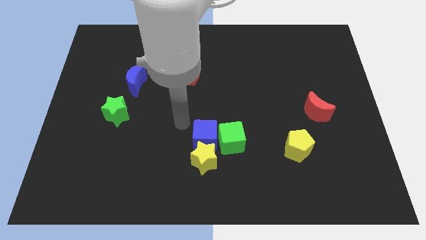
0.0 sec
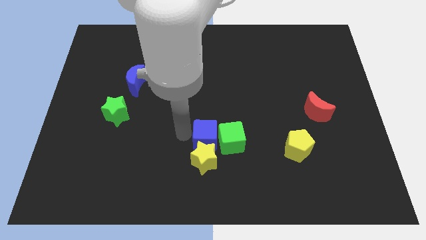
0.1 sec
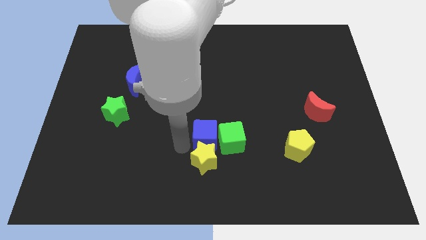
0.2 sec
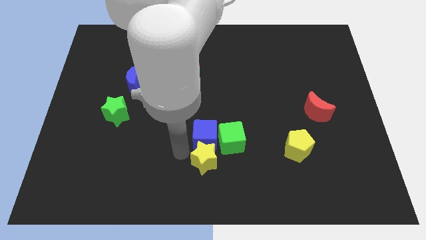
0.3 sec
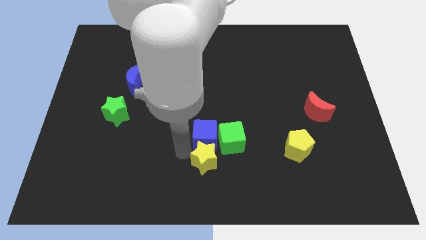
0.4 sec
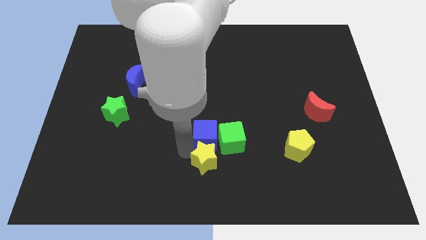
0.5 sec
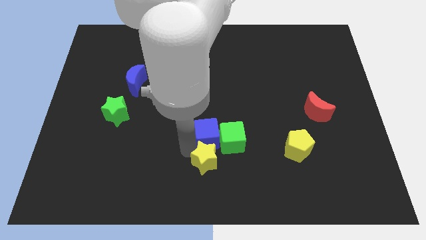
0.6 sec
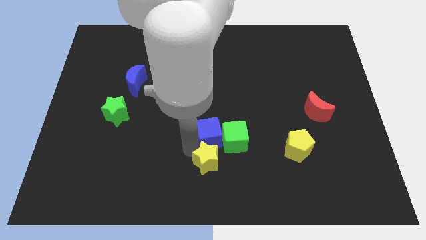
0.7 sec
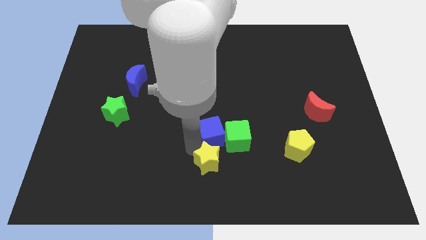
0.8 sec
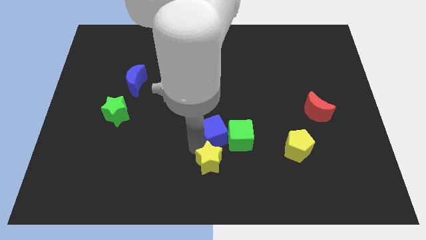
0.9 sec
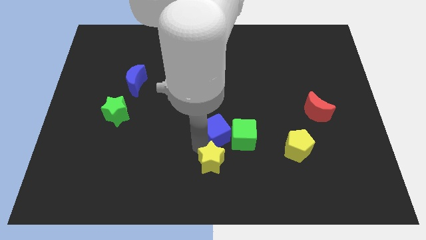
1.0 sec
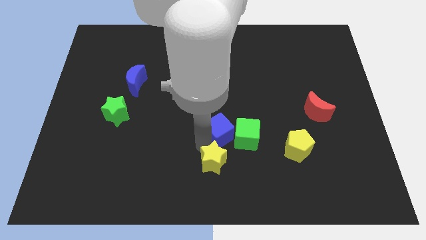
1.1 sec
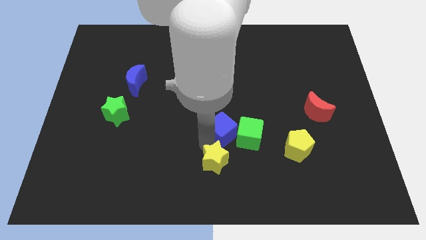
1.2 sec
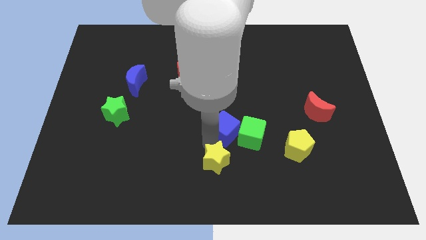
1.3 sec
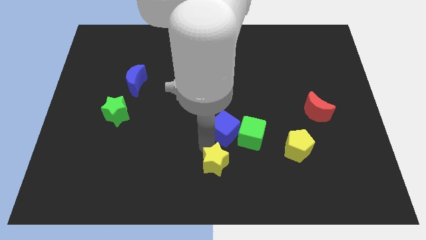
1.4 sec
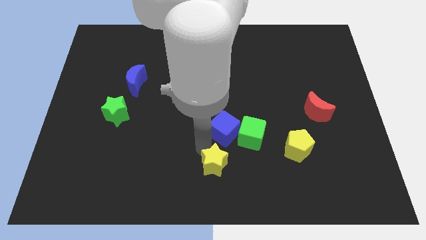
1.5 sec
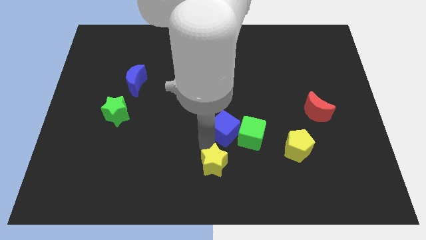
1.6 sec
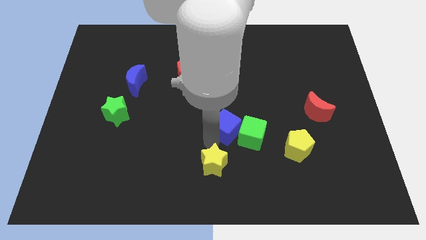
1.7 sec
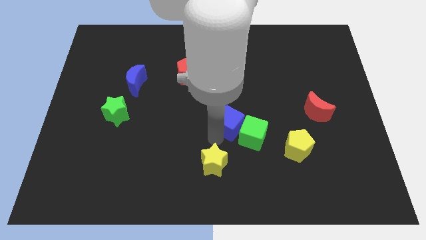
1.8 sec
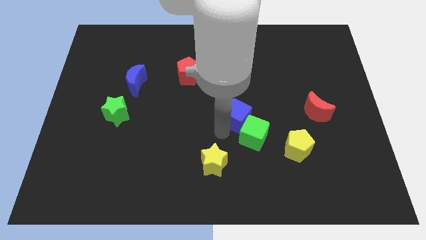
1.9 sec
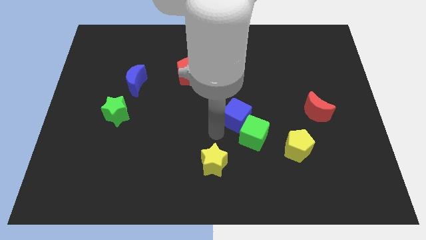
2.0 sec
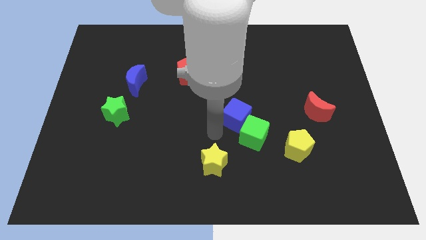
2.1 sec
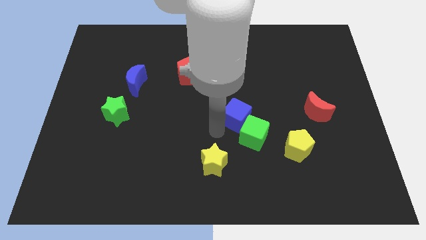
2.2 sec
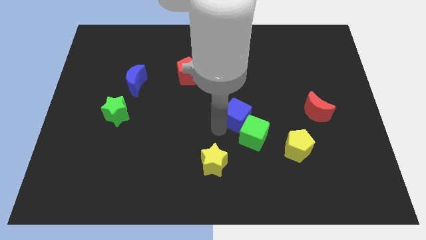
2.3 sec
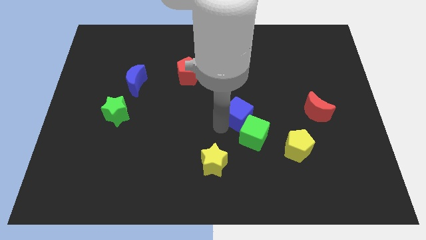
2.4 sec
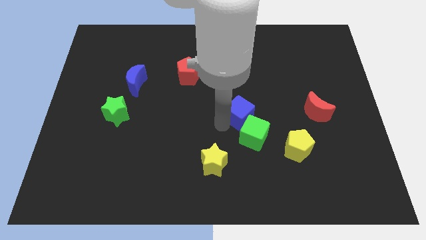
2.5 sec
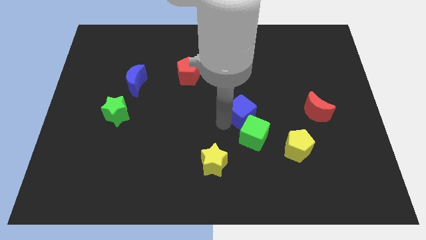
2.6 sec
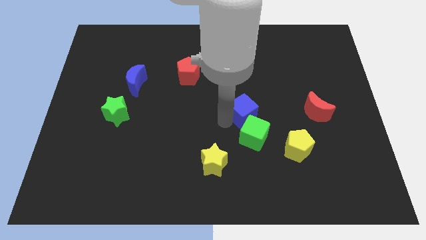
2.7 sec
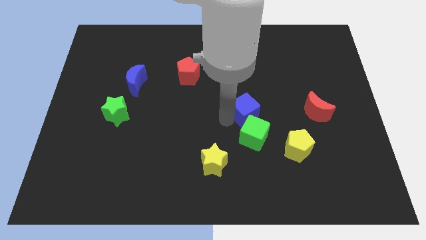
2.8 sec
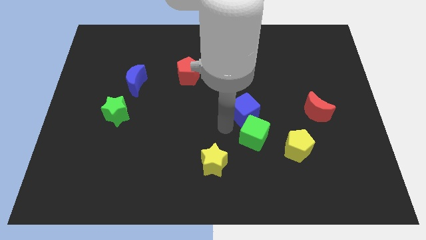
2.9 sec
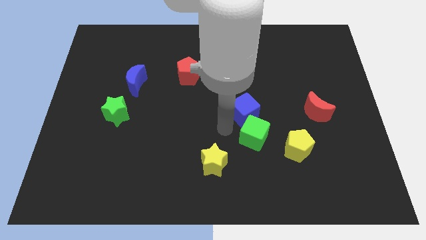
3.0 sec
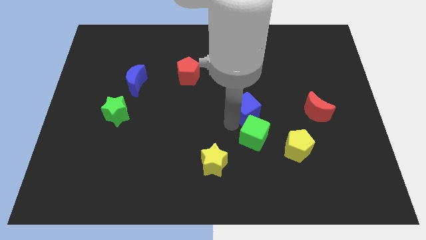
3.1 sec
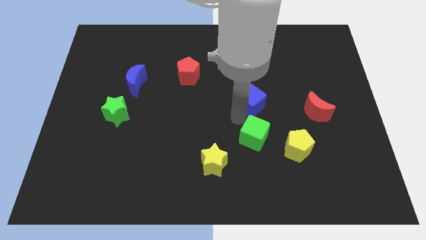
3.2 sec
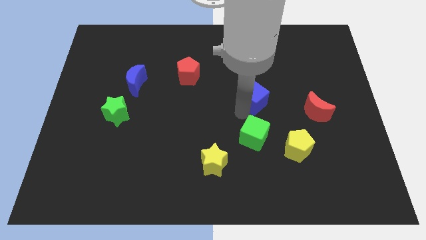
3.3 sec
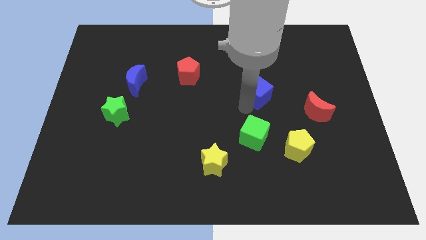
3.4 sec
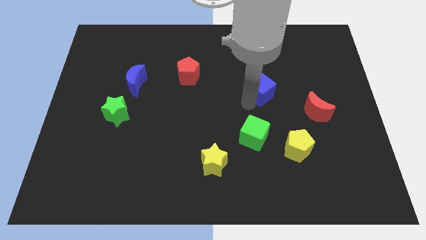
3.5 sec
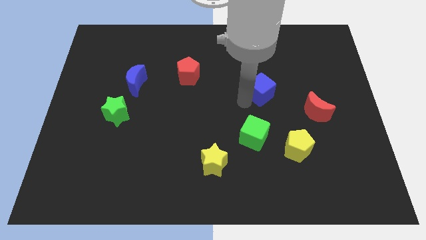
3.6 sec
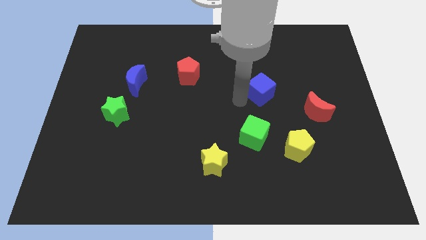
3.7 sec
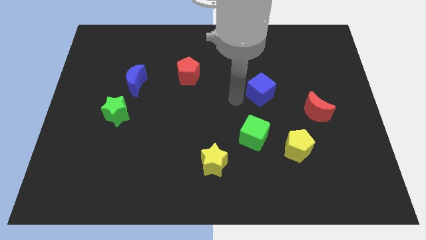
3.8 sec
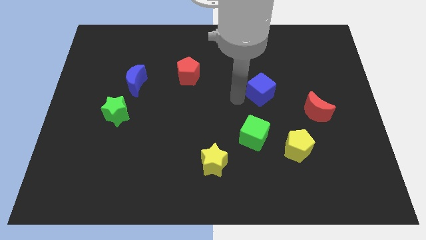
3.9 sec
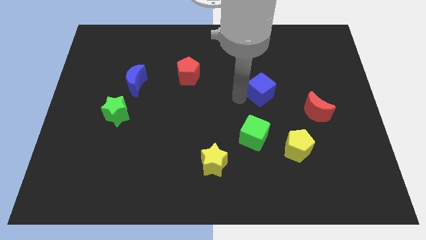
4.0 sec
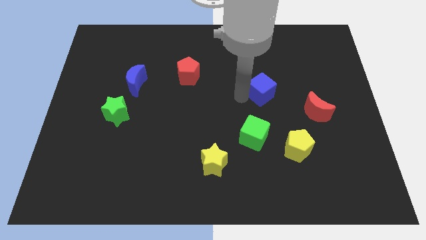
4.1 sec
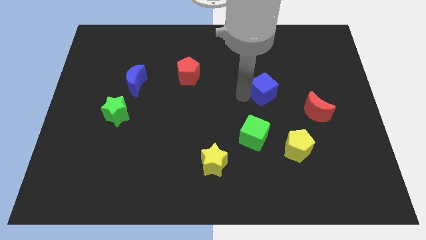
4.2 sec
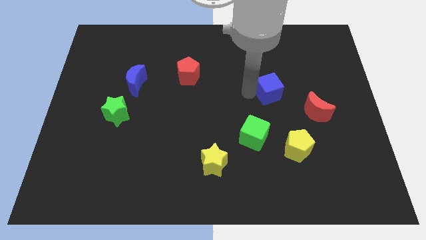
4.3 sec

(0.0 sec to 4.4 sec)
move the blue cube up and then to the right

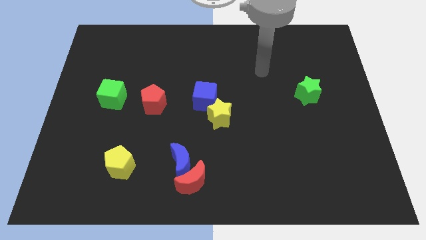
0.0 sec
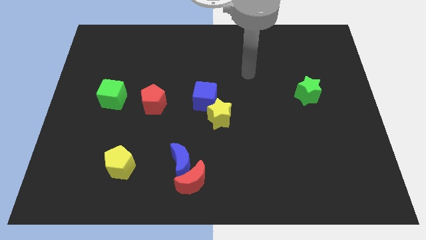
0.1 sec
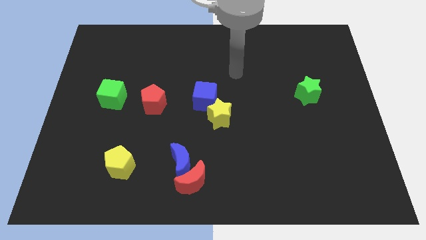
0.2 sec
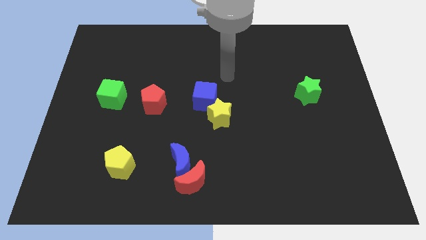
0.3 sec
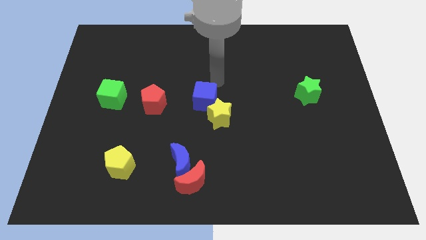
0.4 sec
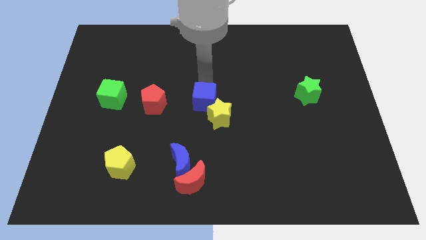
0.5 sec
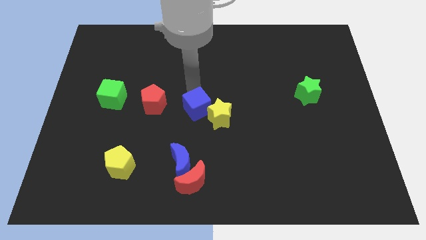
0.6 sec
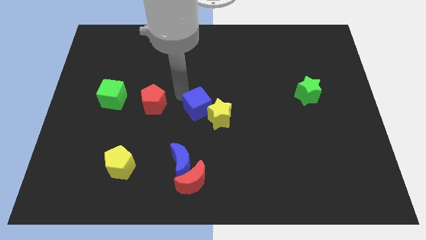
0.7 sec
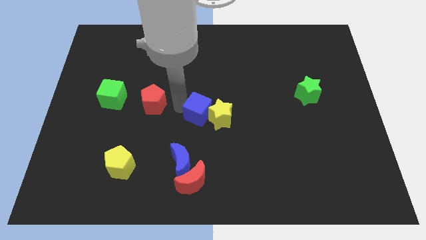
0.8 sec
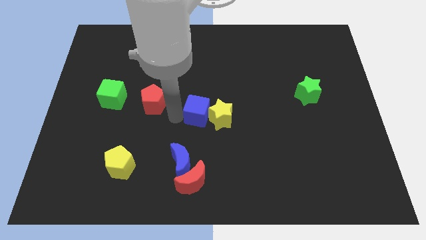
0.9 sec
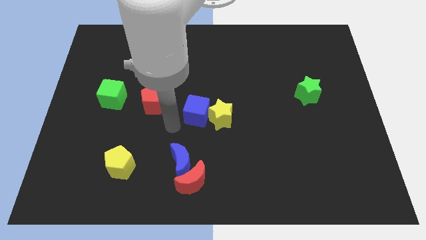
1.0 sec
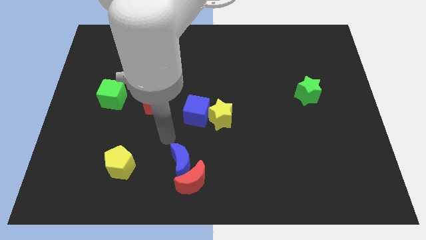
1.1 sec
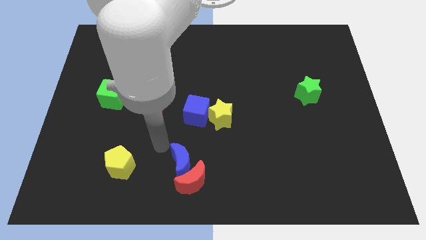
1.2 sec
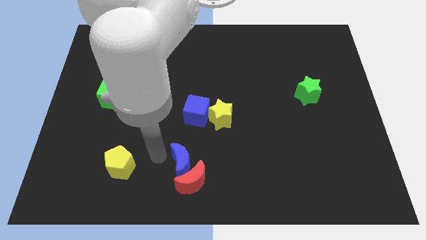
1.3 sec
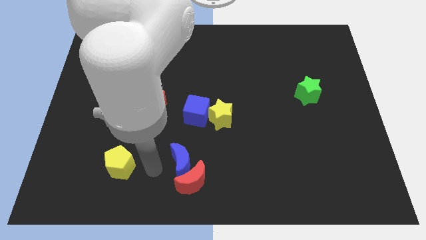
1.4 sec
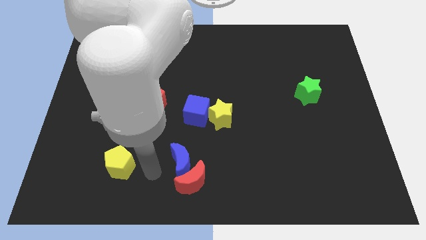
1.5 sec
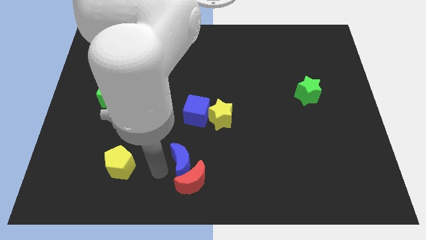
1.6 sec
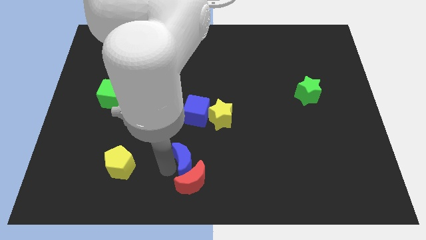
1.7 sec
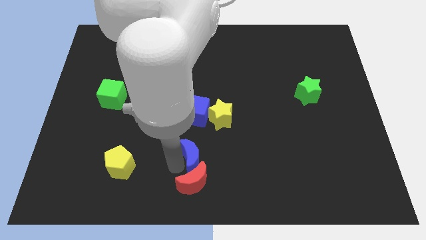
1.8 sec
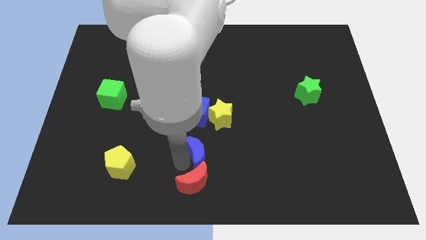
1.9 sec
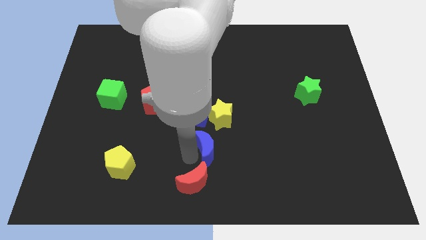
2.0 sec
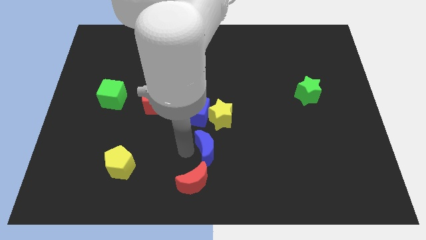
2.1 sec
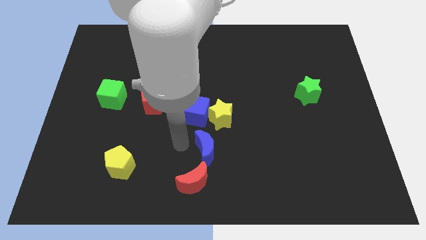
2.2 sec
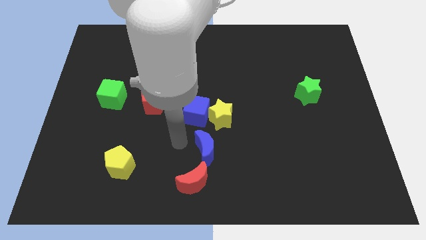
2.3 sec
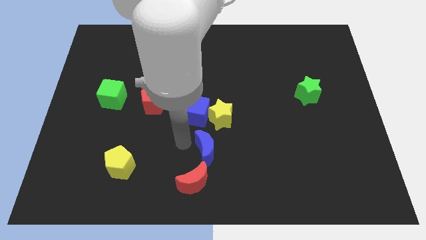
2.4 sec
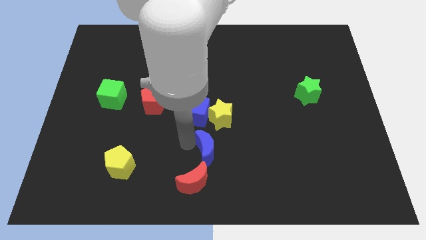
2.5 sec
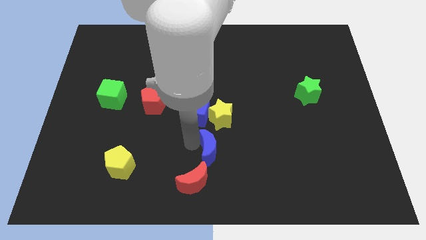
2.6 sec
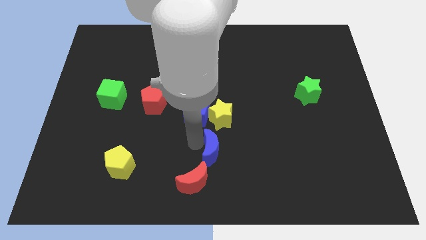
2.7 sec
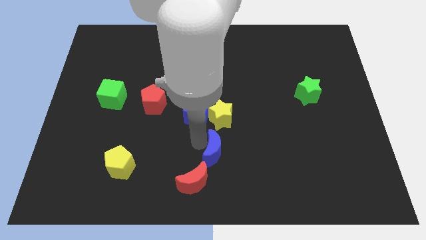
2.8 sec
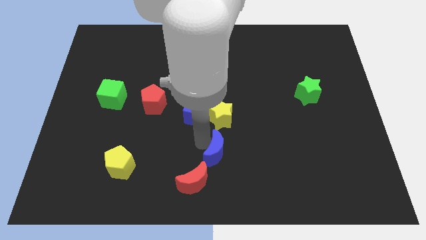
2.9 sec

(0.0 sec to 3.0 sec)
slightly push the blue moon right

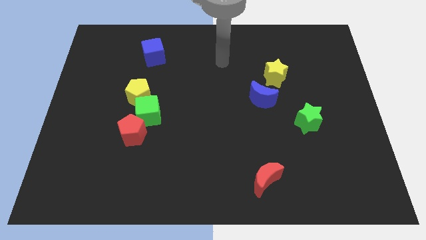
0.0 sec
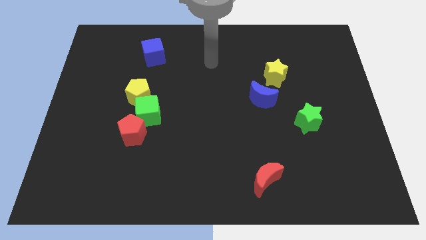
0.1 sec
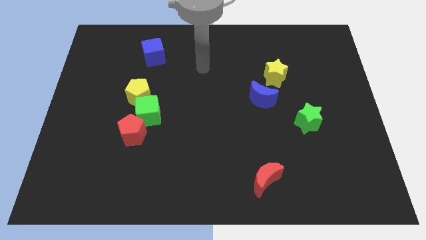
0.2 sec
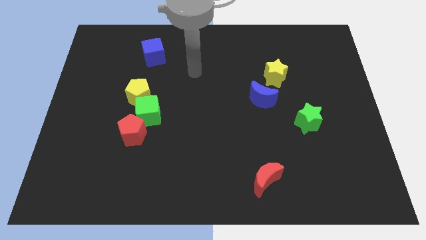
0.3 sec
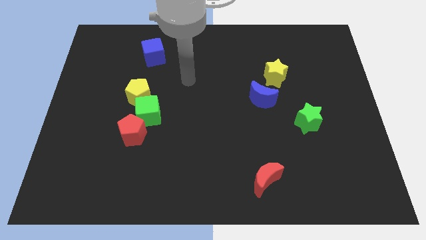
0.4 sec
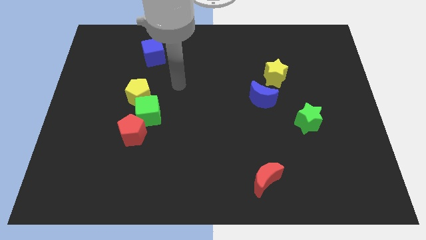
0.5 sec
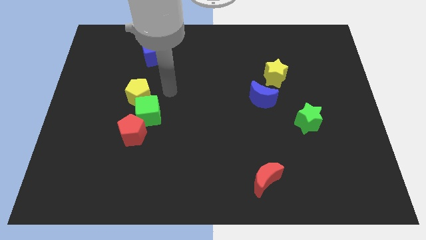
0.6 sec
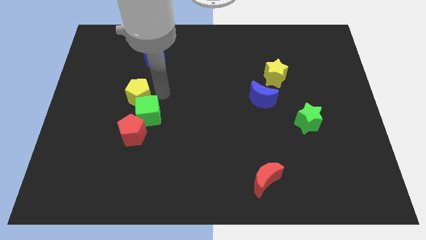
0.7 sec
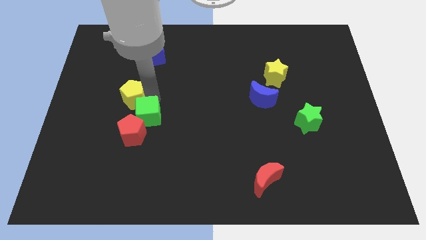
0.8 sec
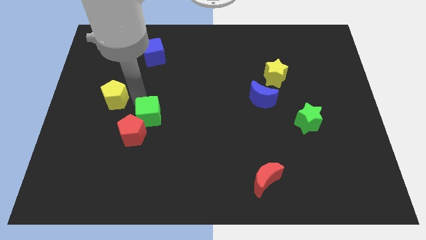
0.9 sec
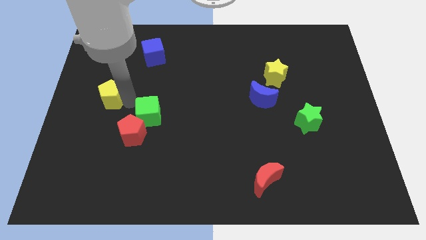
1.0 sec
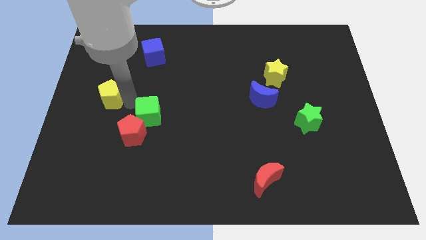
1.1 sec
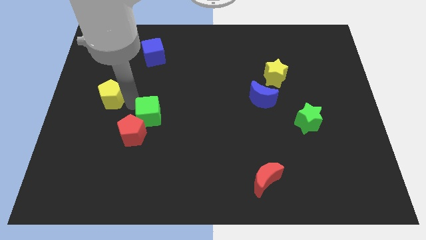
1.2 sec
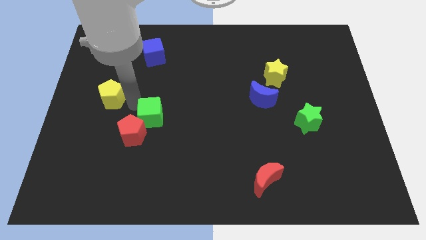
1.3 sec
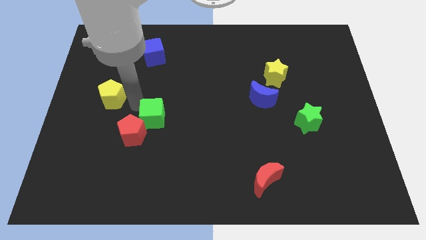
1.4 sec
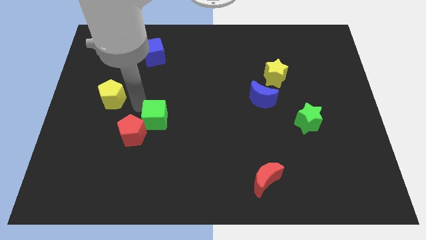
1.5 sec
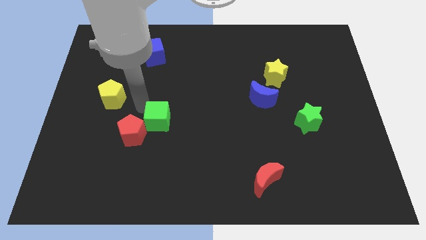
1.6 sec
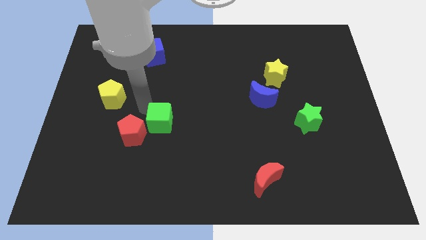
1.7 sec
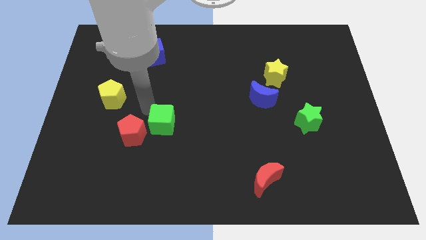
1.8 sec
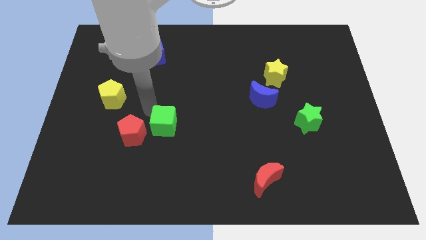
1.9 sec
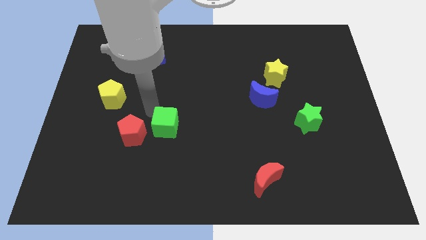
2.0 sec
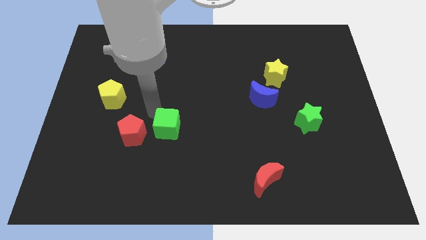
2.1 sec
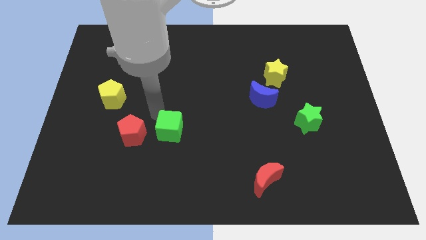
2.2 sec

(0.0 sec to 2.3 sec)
slightly push the green cube downwards and to the right diagonally
